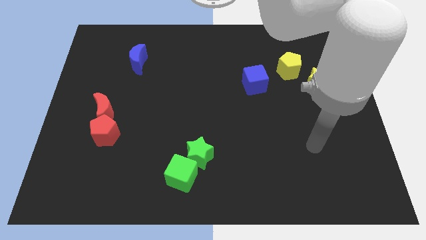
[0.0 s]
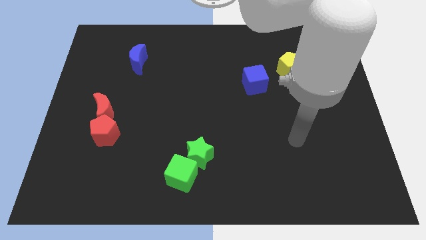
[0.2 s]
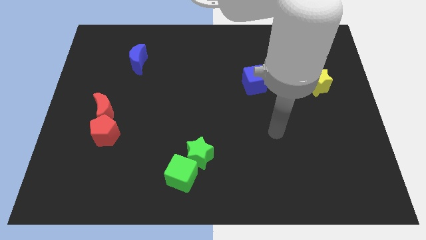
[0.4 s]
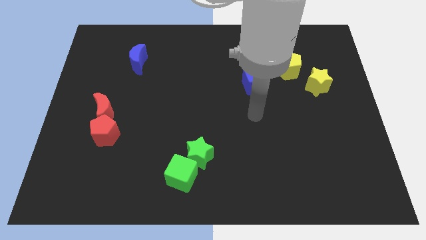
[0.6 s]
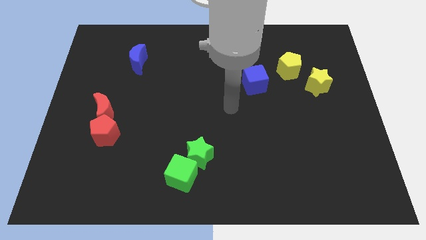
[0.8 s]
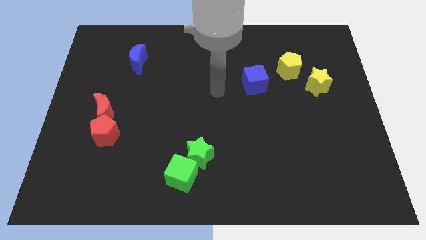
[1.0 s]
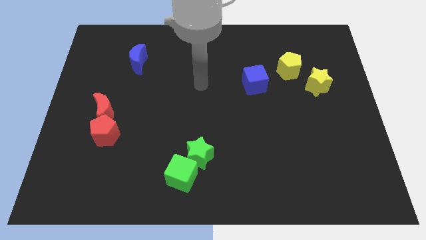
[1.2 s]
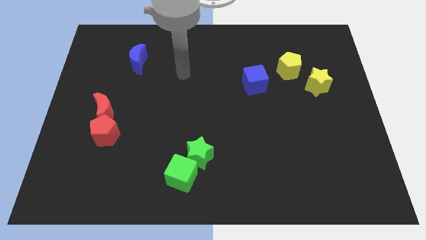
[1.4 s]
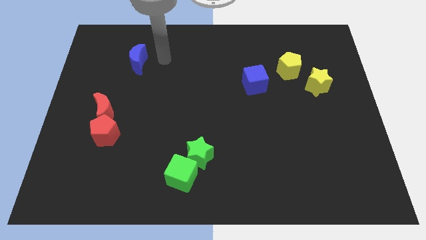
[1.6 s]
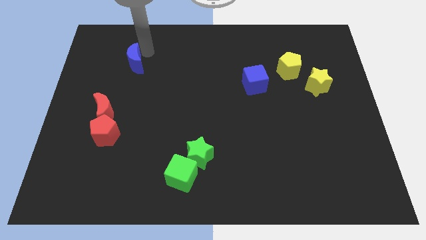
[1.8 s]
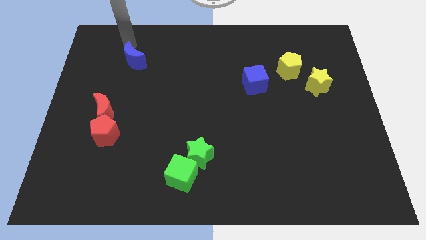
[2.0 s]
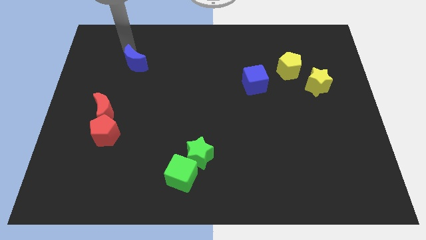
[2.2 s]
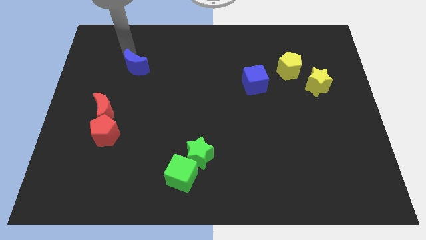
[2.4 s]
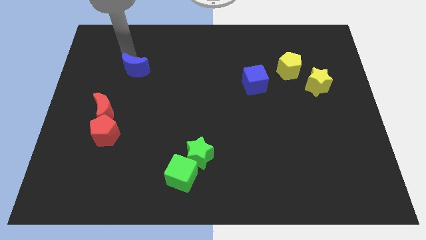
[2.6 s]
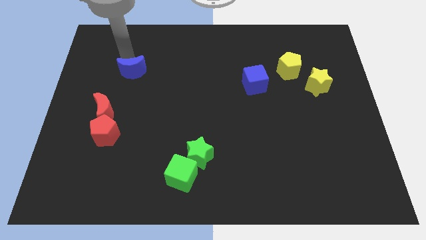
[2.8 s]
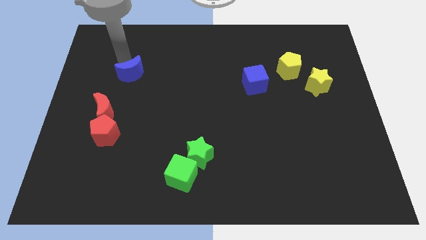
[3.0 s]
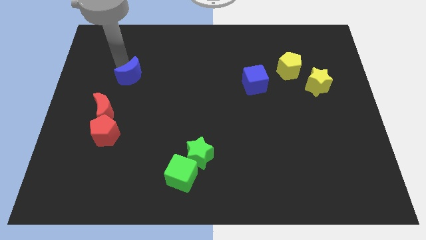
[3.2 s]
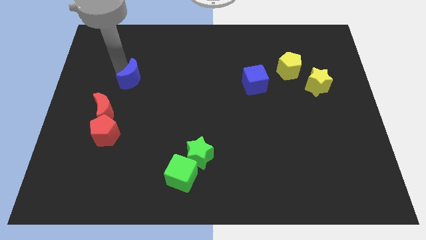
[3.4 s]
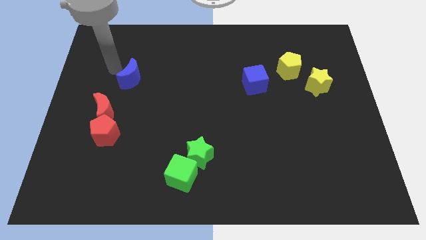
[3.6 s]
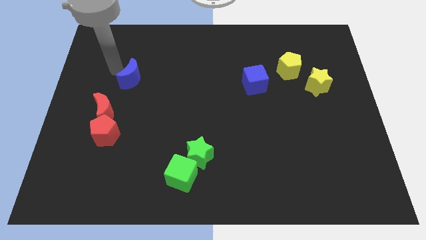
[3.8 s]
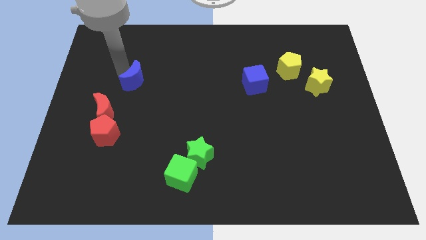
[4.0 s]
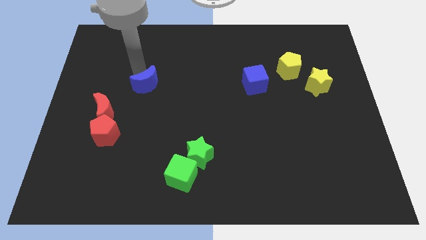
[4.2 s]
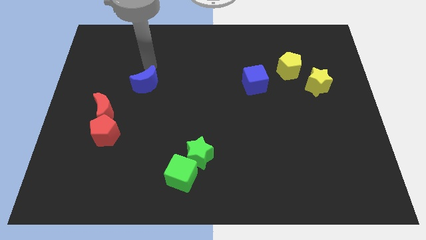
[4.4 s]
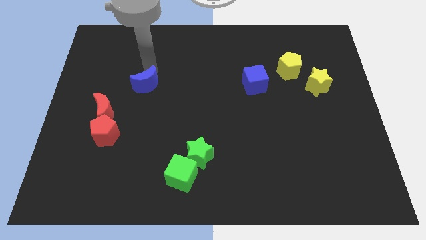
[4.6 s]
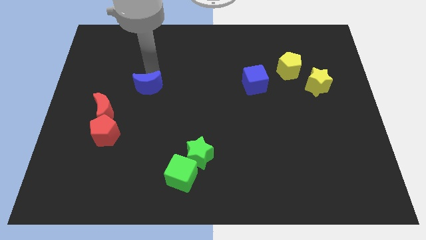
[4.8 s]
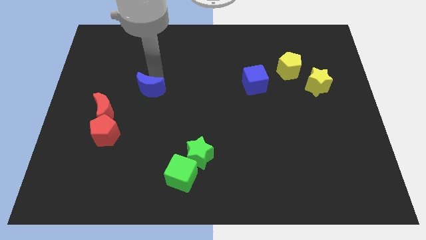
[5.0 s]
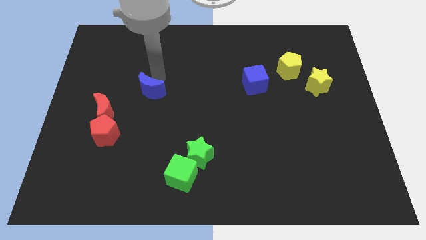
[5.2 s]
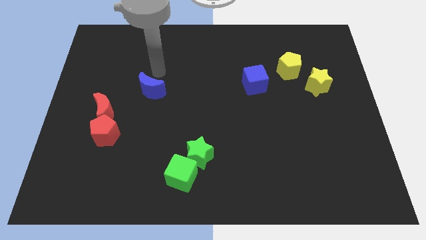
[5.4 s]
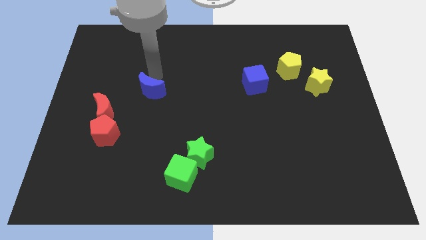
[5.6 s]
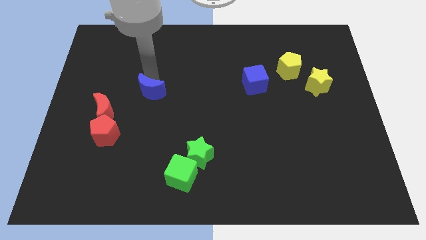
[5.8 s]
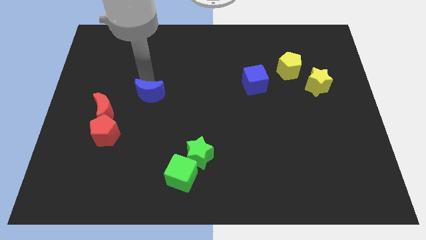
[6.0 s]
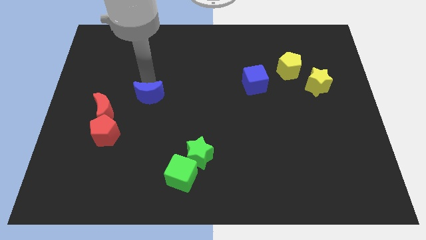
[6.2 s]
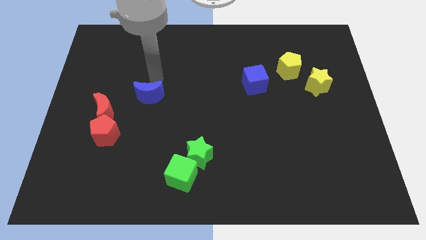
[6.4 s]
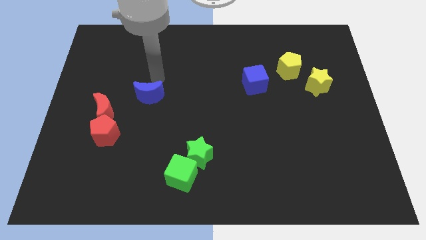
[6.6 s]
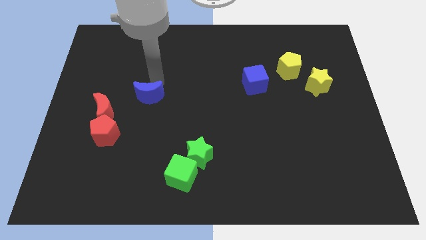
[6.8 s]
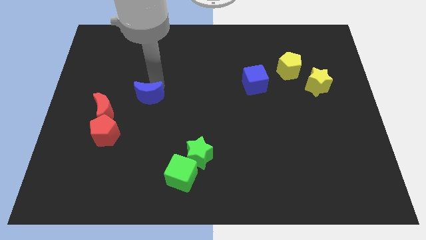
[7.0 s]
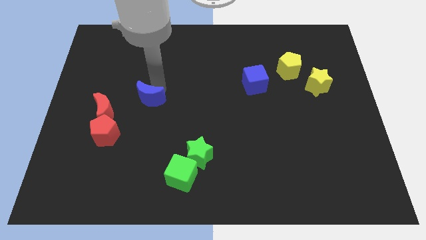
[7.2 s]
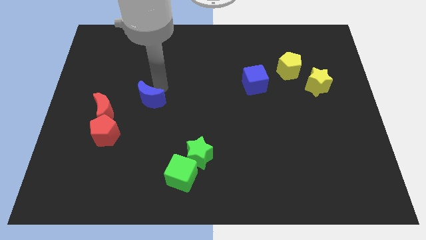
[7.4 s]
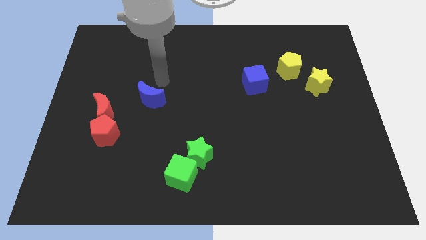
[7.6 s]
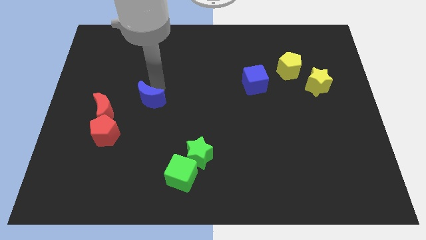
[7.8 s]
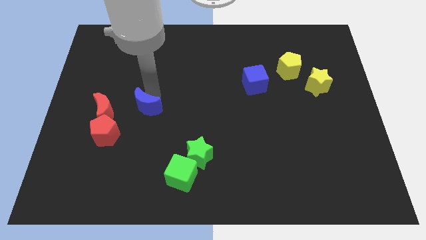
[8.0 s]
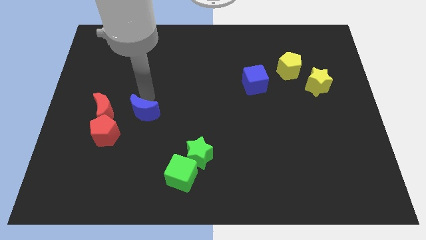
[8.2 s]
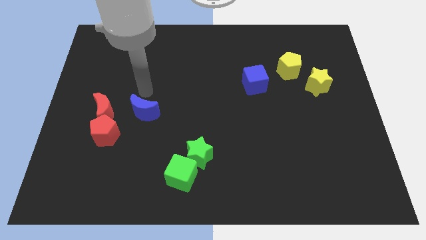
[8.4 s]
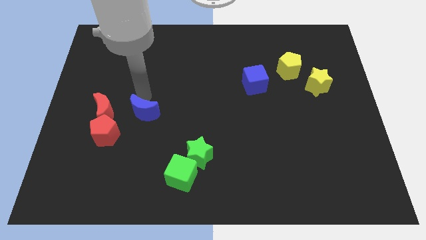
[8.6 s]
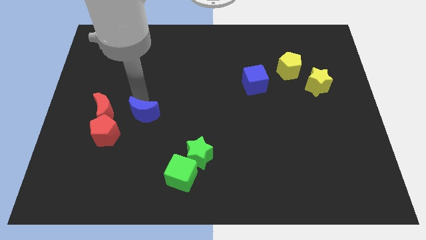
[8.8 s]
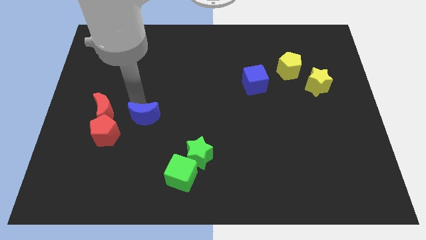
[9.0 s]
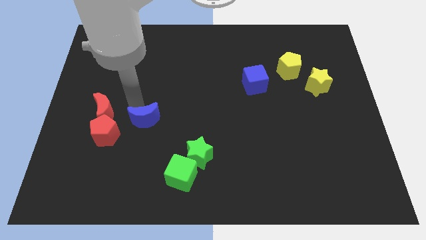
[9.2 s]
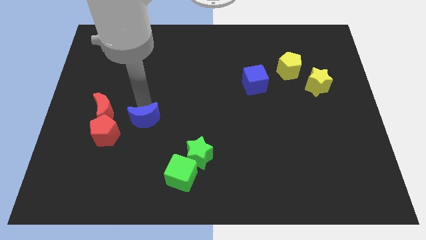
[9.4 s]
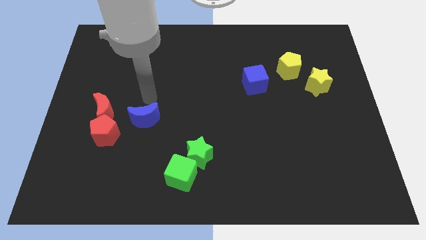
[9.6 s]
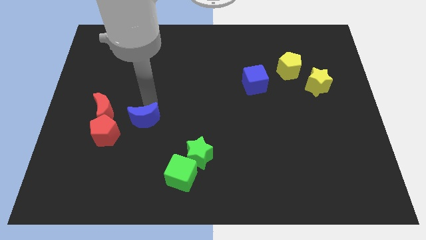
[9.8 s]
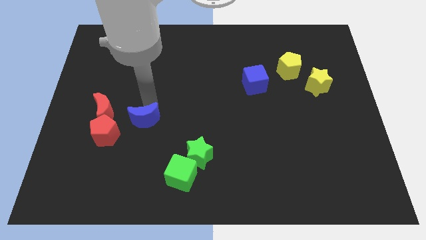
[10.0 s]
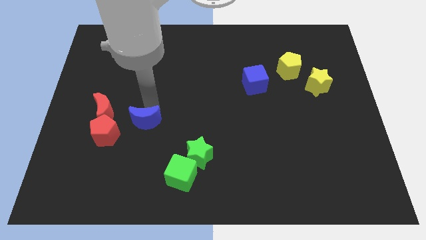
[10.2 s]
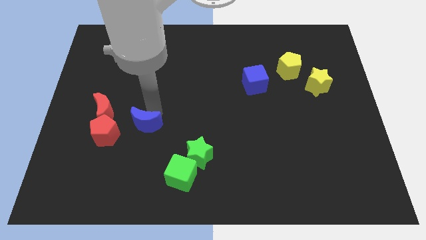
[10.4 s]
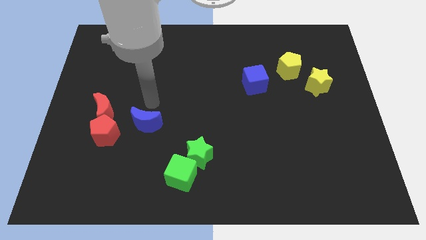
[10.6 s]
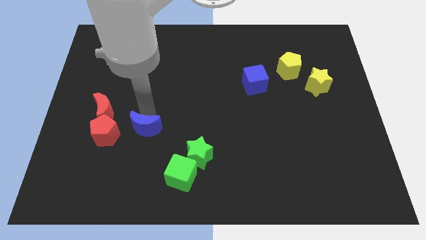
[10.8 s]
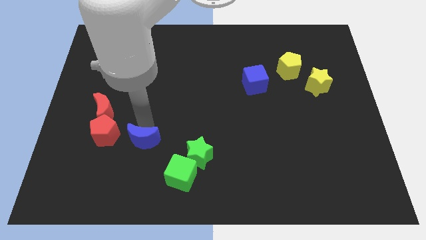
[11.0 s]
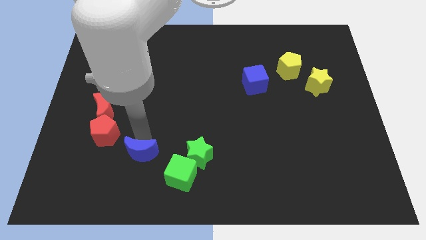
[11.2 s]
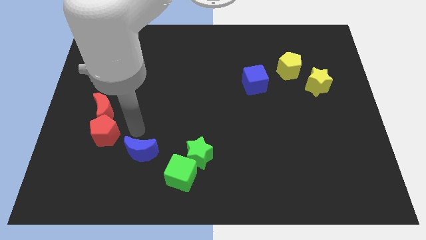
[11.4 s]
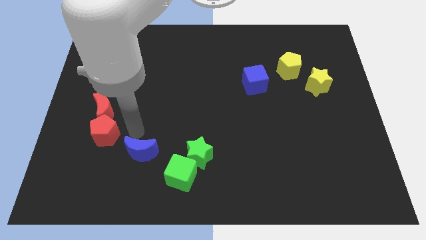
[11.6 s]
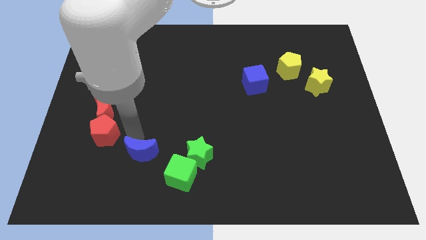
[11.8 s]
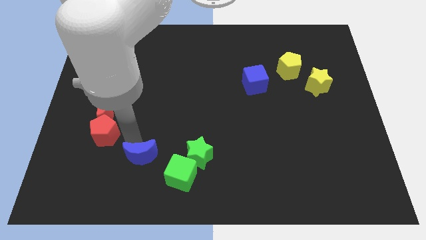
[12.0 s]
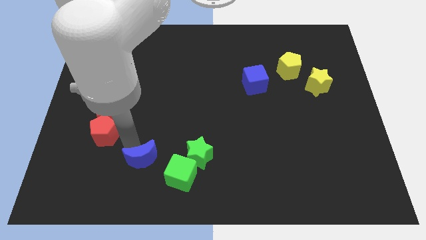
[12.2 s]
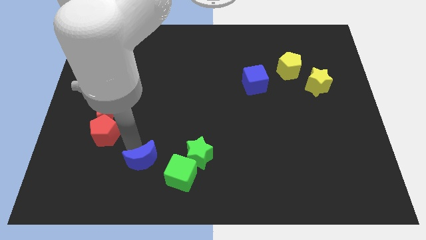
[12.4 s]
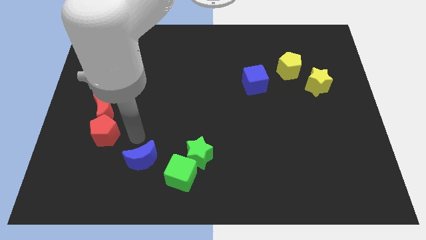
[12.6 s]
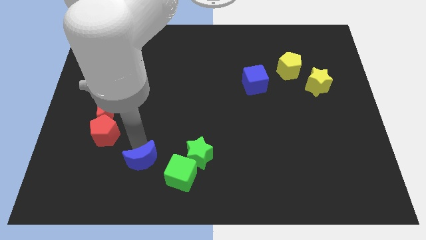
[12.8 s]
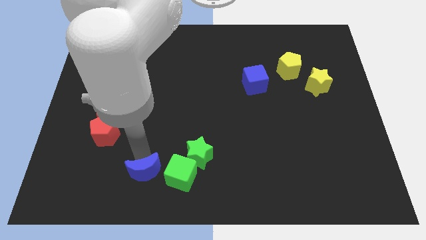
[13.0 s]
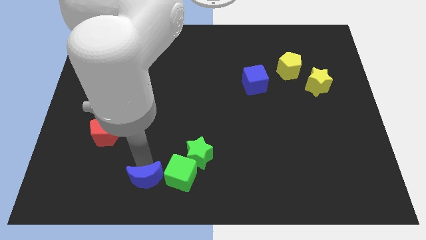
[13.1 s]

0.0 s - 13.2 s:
push the blue moon diagonally down and to the left of the green star
